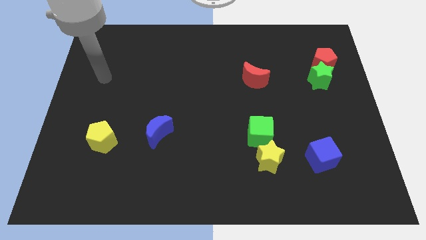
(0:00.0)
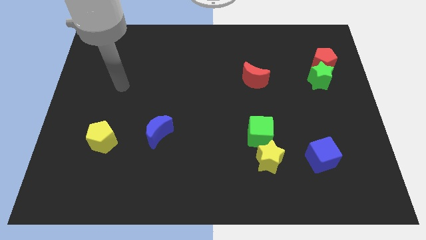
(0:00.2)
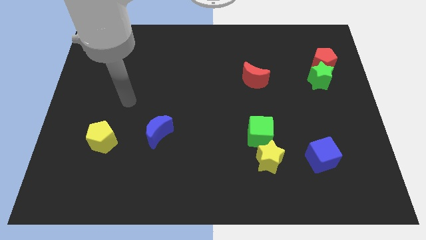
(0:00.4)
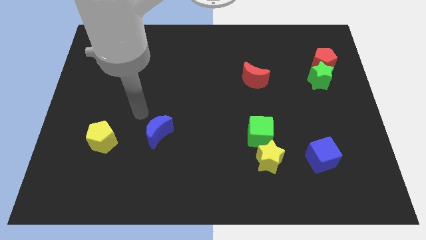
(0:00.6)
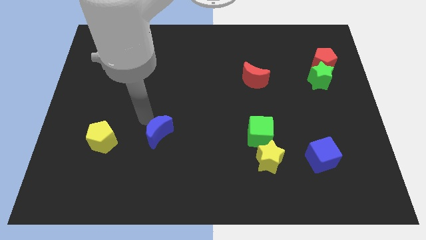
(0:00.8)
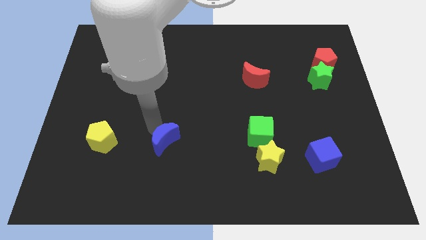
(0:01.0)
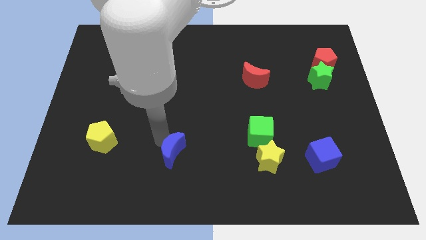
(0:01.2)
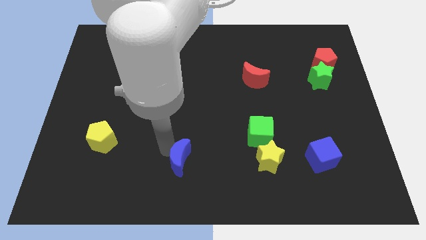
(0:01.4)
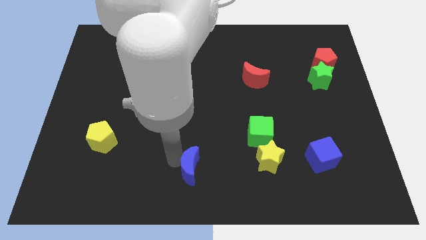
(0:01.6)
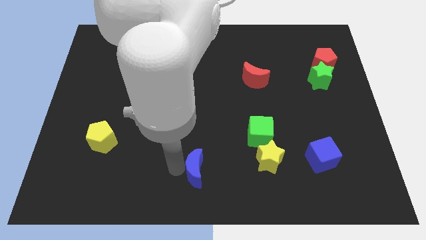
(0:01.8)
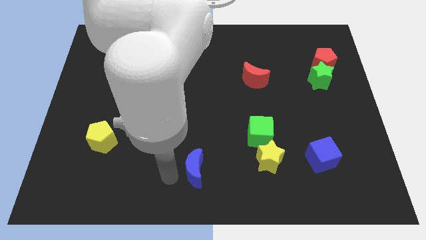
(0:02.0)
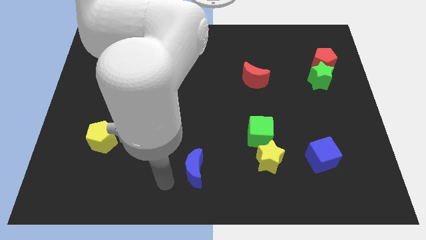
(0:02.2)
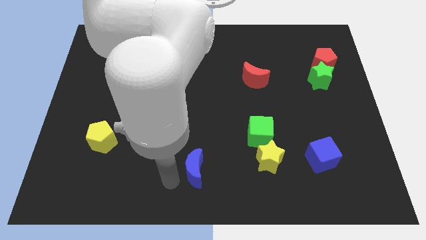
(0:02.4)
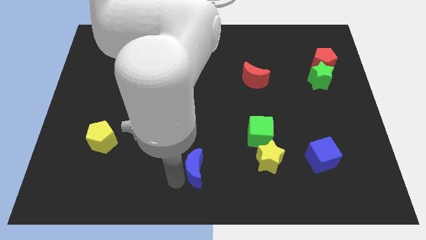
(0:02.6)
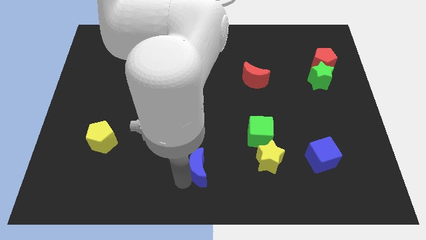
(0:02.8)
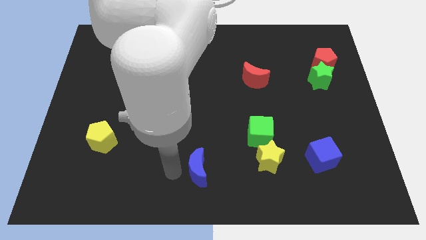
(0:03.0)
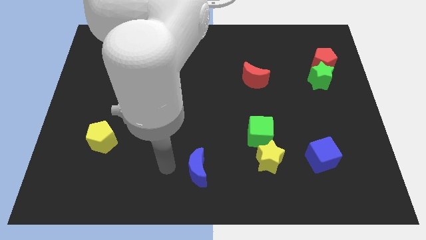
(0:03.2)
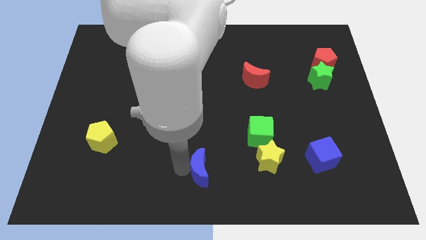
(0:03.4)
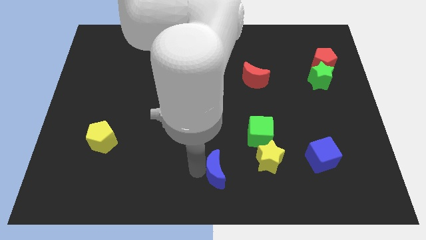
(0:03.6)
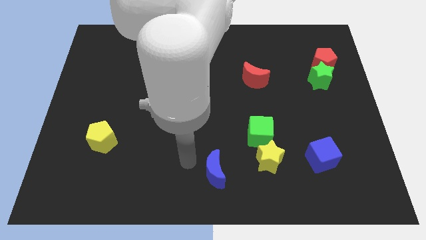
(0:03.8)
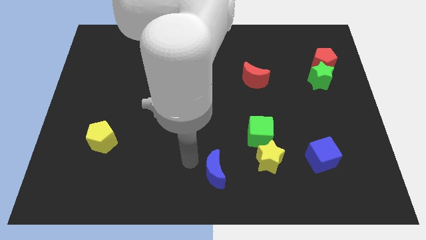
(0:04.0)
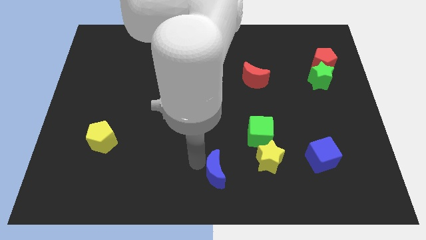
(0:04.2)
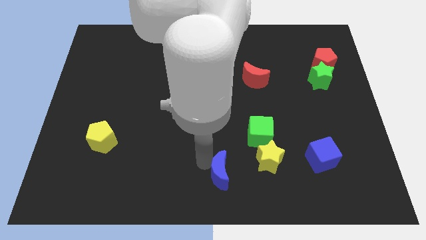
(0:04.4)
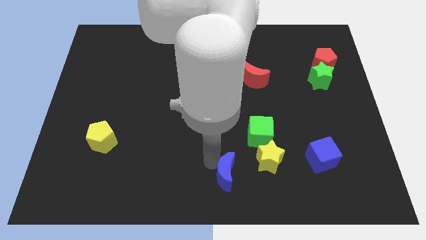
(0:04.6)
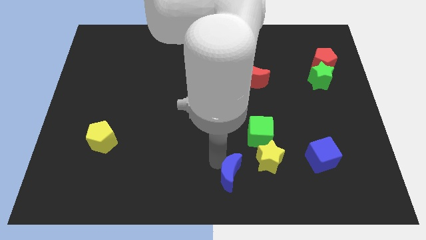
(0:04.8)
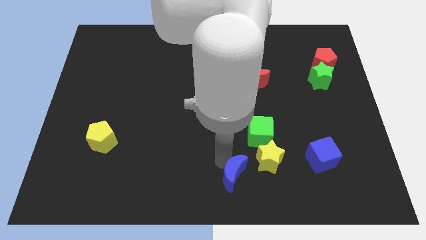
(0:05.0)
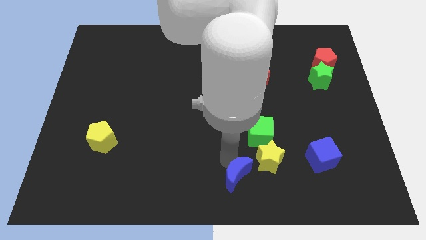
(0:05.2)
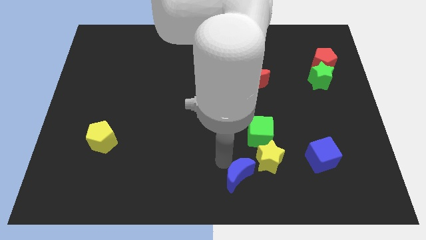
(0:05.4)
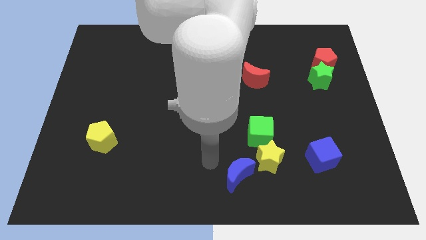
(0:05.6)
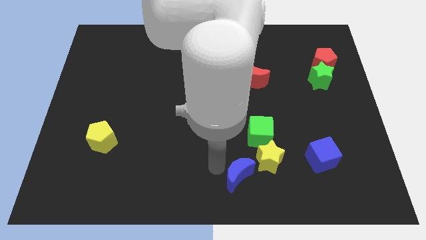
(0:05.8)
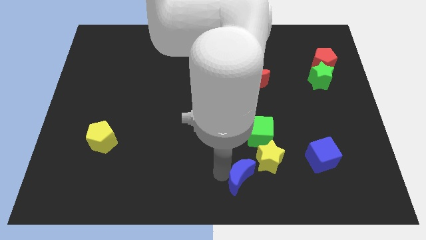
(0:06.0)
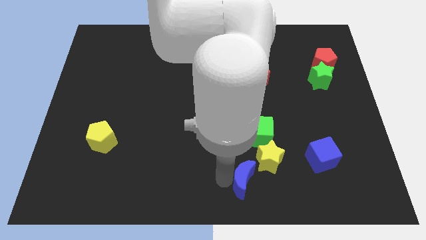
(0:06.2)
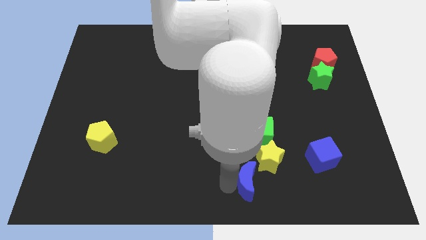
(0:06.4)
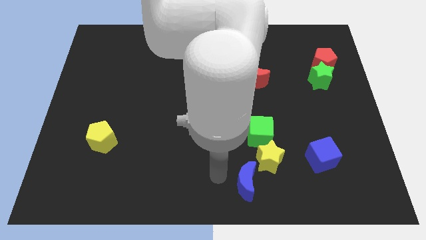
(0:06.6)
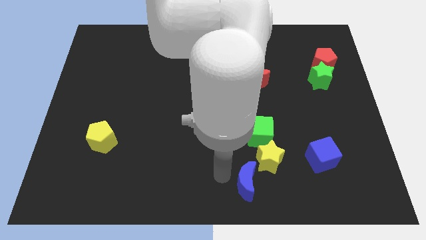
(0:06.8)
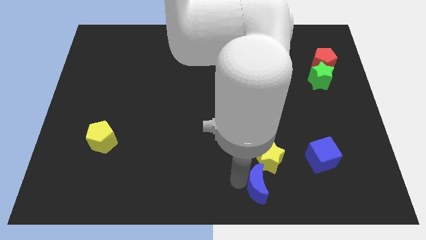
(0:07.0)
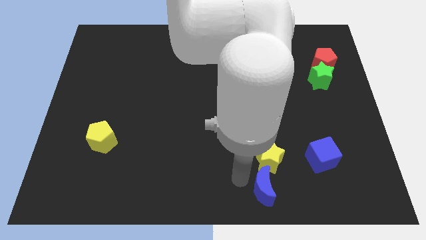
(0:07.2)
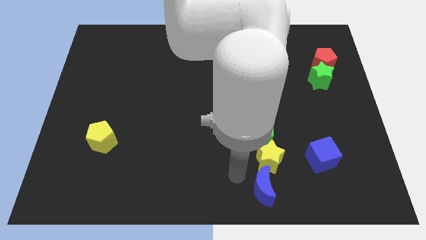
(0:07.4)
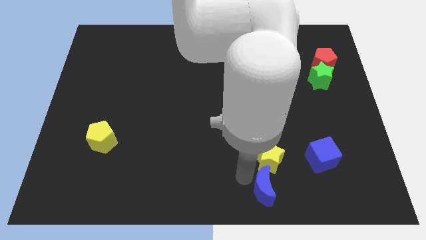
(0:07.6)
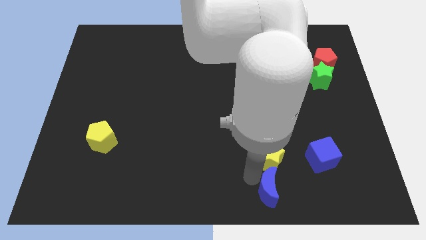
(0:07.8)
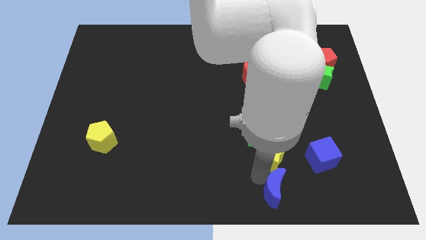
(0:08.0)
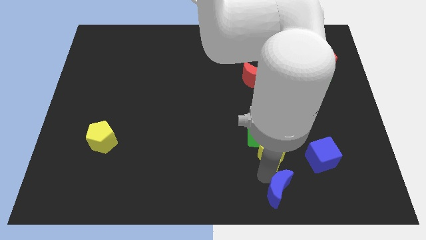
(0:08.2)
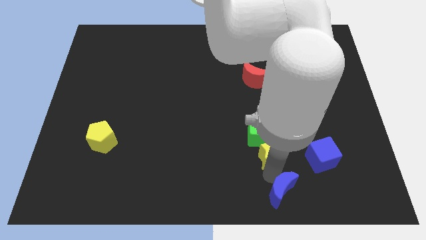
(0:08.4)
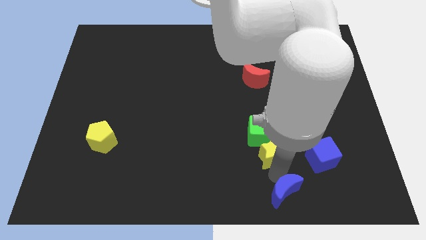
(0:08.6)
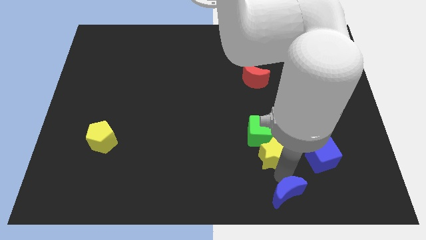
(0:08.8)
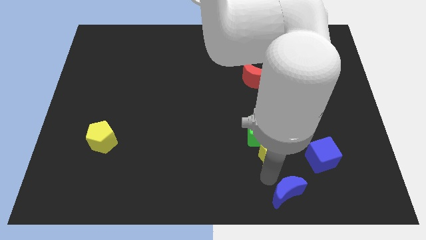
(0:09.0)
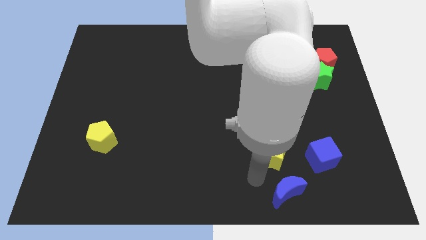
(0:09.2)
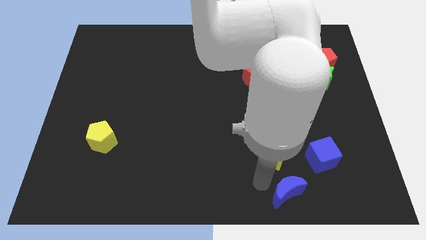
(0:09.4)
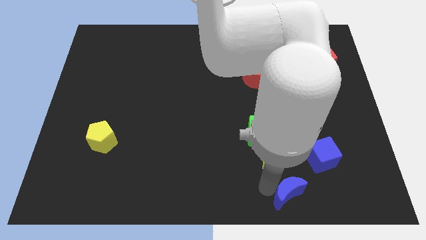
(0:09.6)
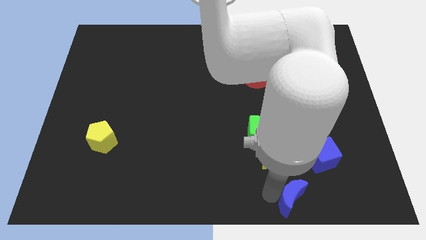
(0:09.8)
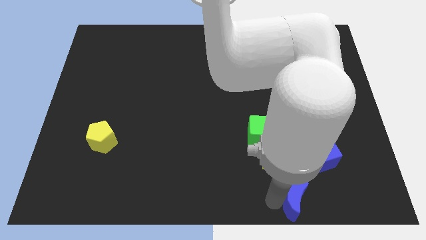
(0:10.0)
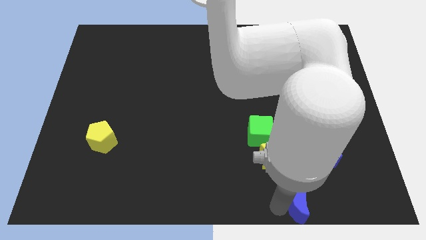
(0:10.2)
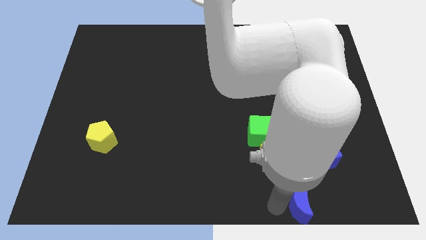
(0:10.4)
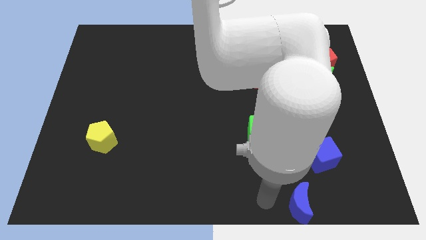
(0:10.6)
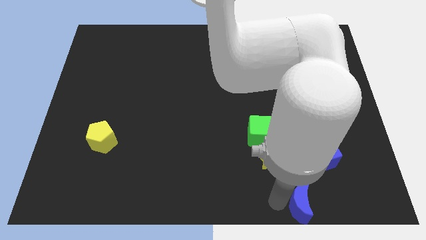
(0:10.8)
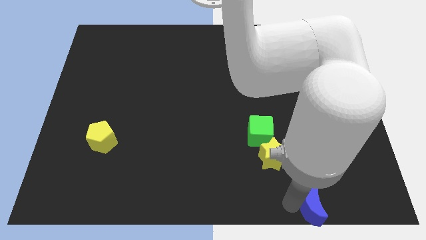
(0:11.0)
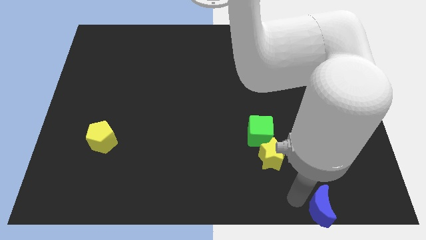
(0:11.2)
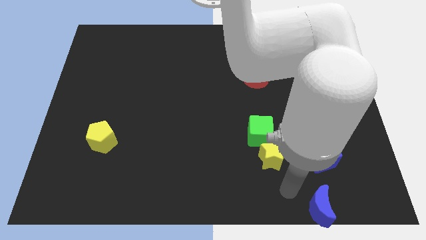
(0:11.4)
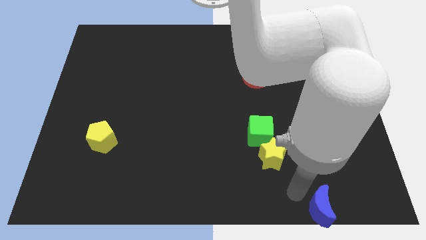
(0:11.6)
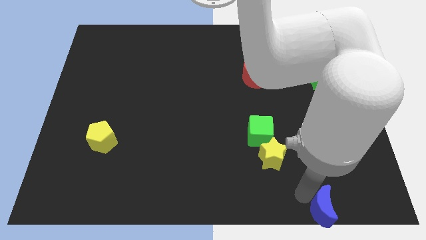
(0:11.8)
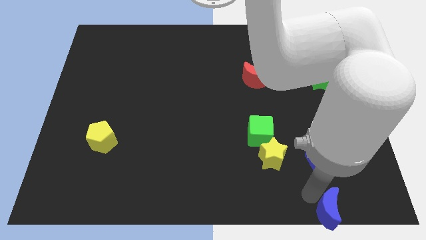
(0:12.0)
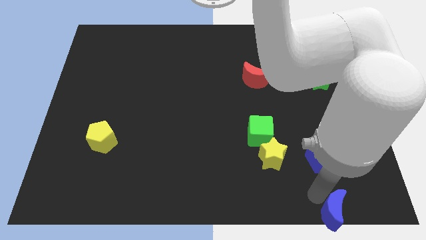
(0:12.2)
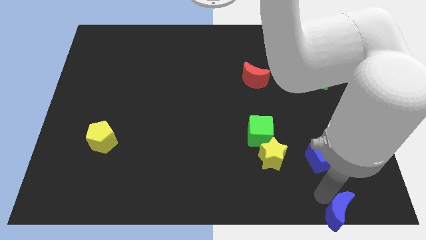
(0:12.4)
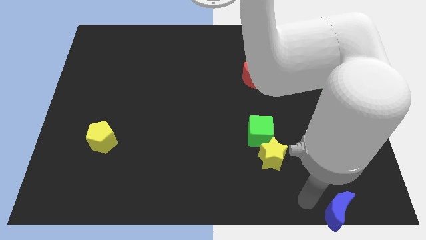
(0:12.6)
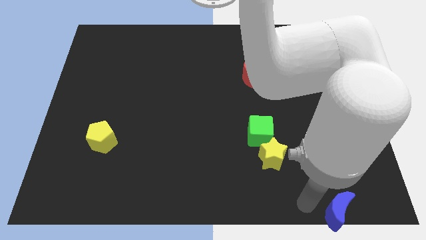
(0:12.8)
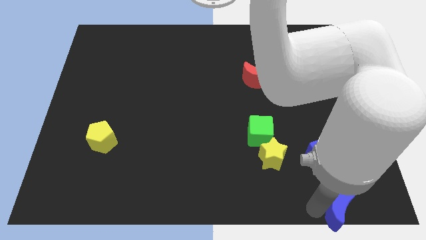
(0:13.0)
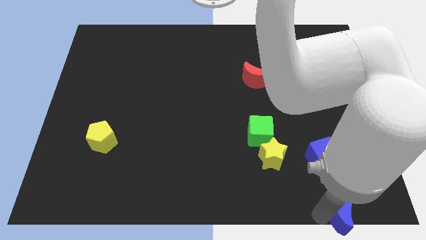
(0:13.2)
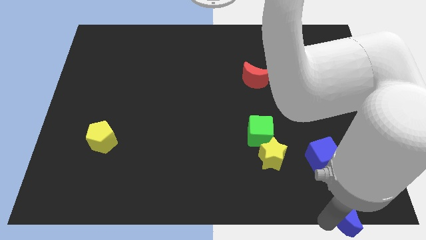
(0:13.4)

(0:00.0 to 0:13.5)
slide the blue moon to the lower right corner
